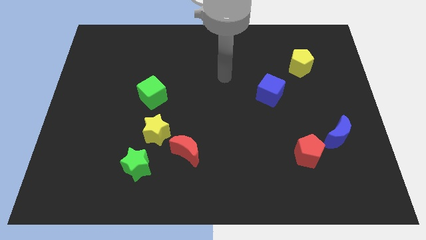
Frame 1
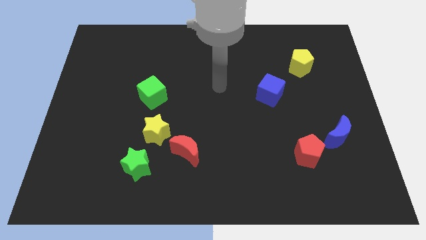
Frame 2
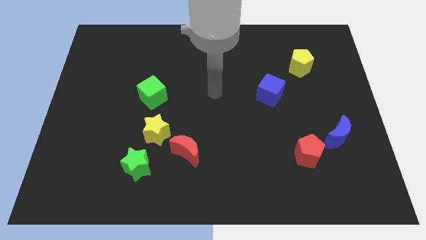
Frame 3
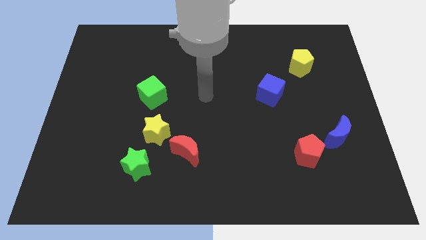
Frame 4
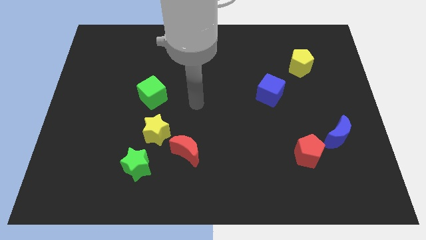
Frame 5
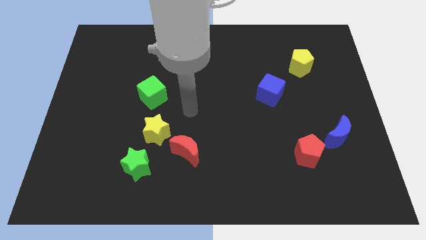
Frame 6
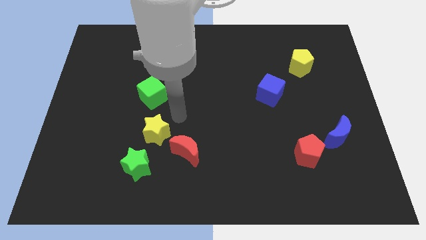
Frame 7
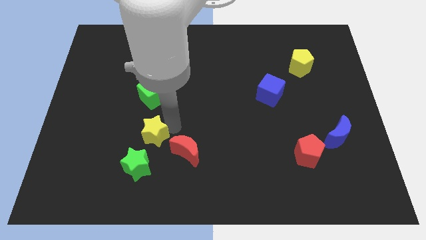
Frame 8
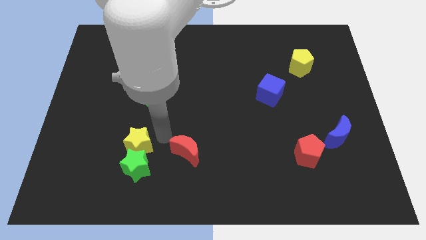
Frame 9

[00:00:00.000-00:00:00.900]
pull the red moon apart from the yellow star

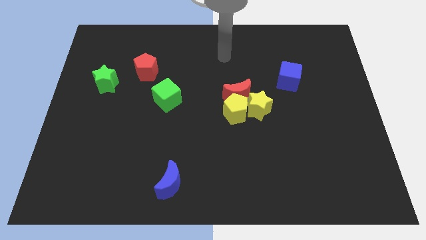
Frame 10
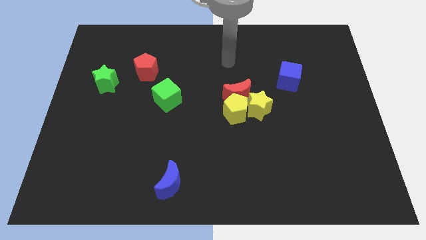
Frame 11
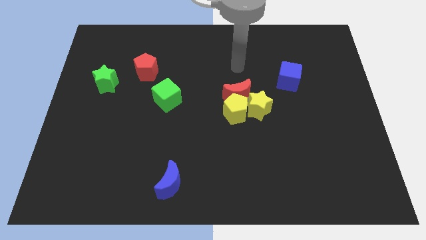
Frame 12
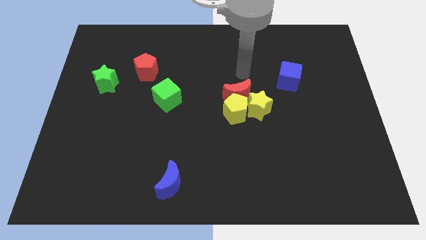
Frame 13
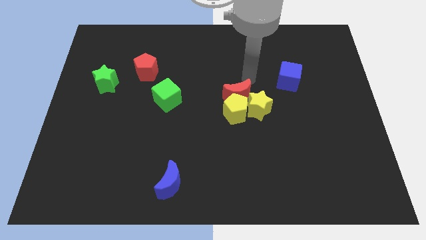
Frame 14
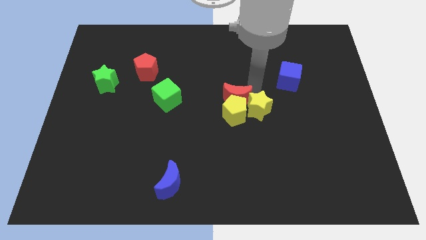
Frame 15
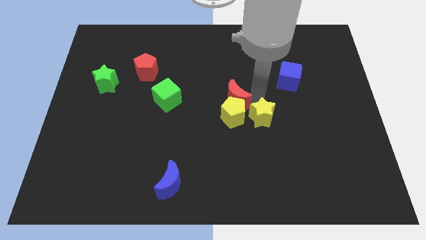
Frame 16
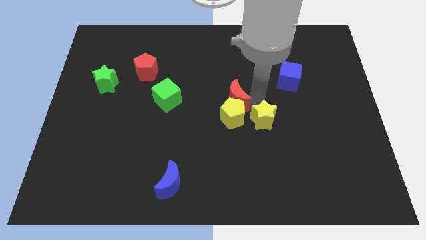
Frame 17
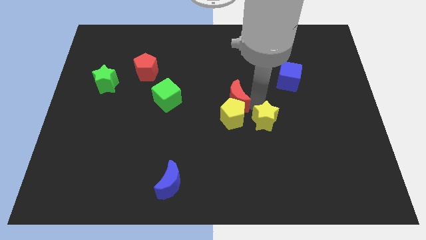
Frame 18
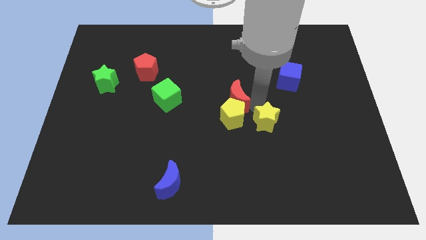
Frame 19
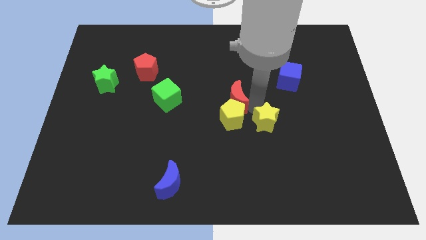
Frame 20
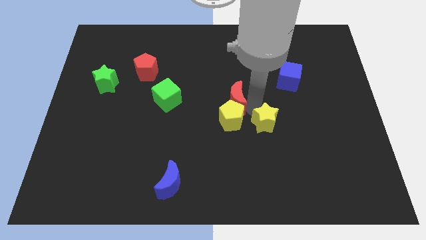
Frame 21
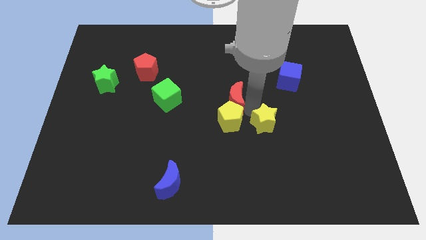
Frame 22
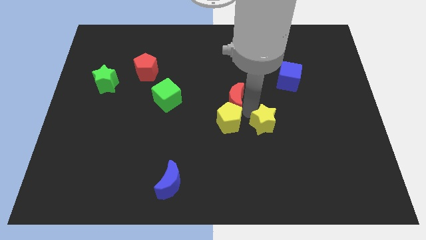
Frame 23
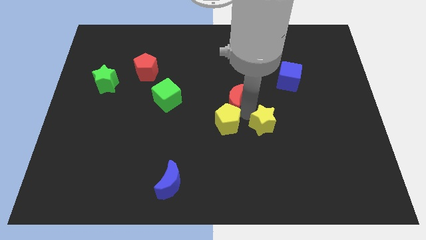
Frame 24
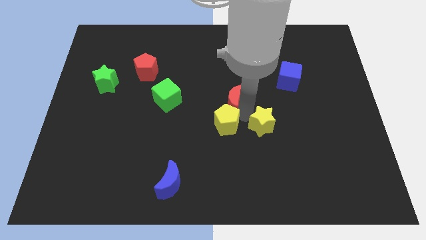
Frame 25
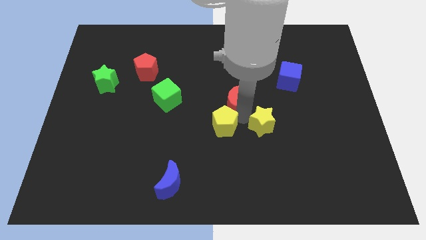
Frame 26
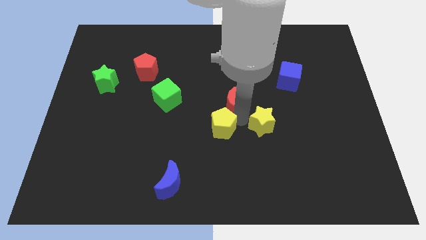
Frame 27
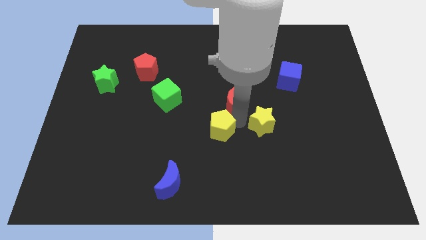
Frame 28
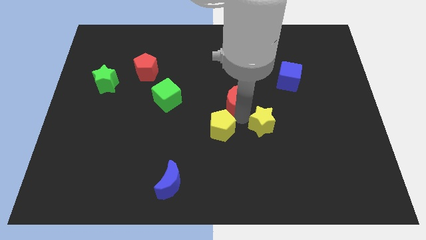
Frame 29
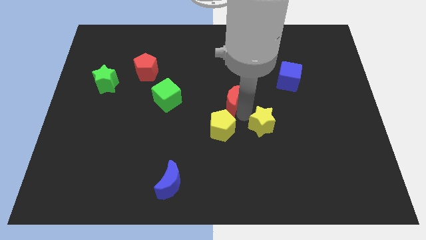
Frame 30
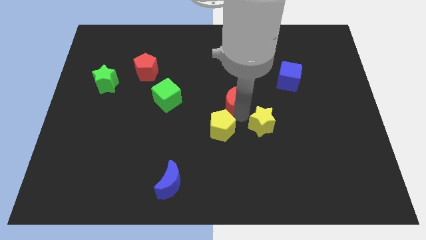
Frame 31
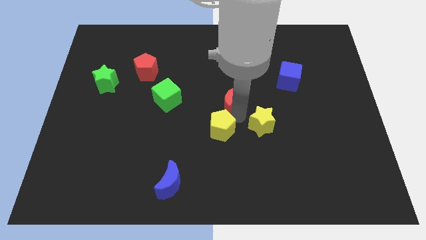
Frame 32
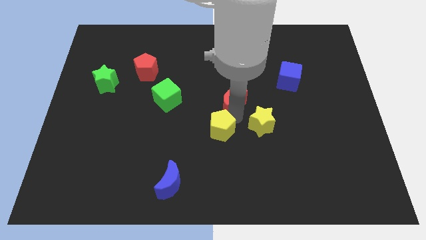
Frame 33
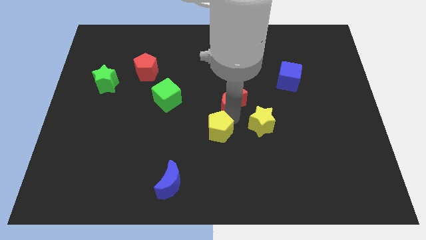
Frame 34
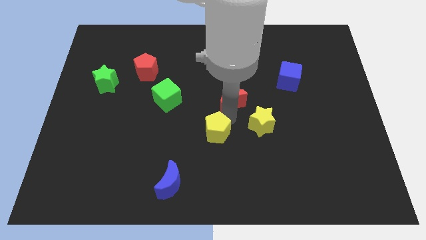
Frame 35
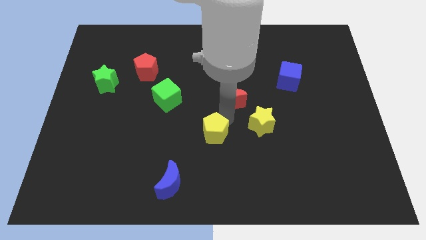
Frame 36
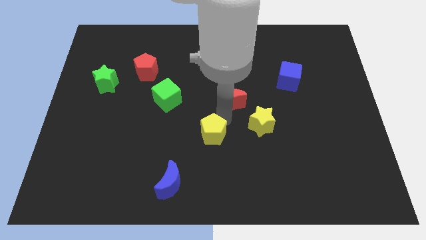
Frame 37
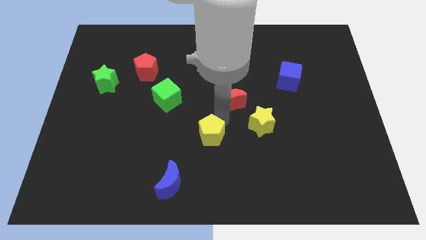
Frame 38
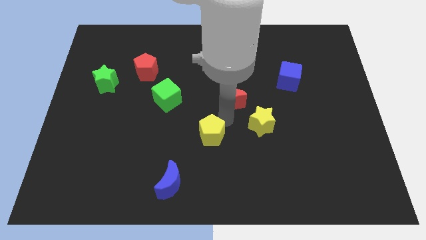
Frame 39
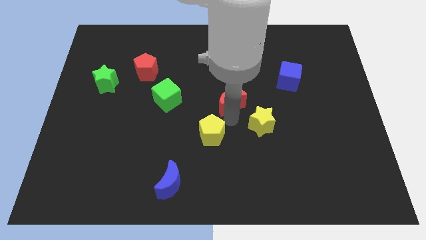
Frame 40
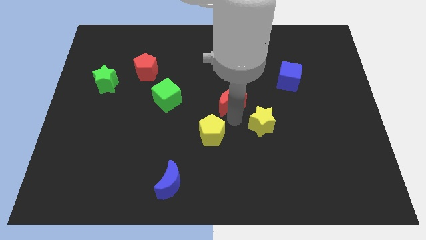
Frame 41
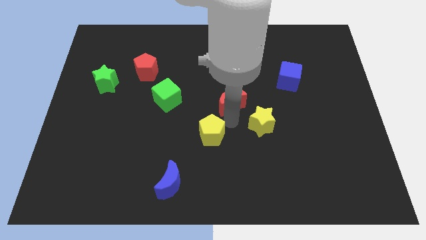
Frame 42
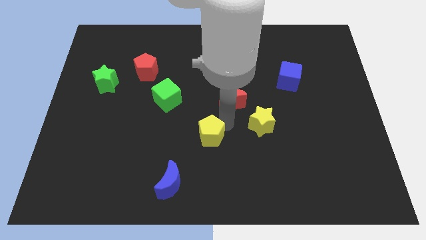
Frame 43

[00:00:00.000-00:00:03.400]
separate the yellow pentagon from the red moon and yellow star

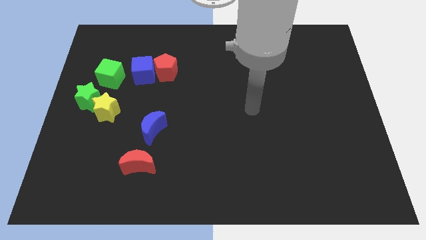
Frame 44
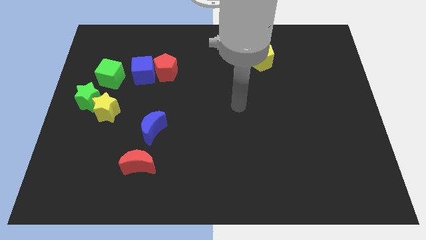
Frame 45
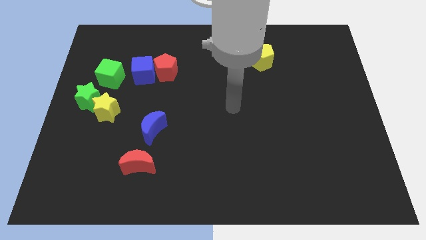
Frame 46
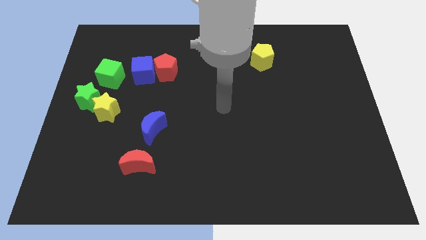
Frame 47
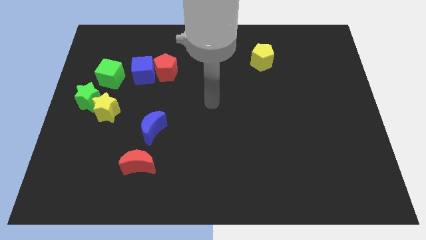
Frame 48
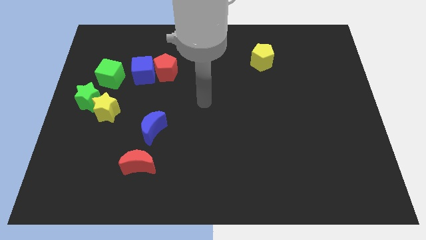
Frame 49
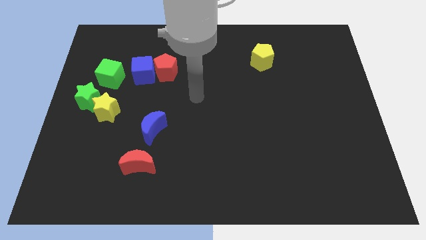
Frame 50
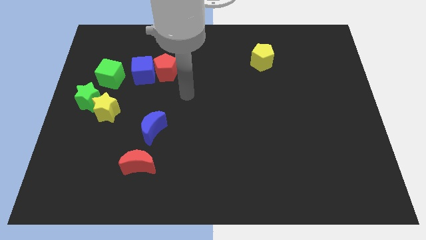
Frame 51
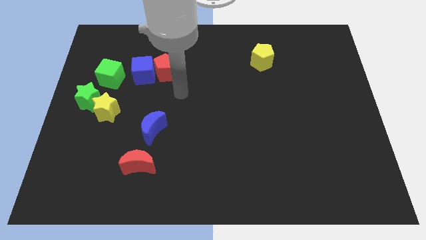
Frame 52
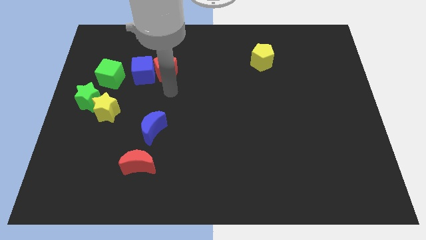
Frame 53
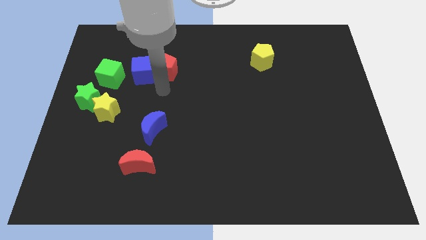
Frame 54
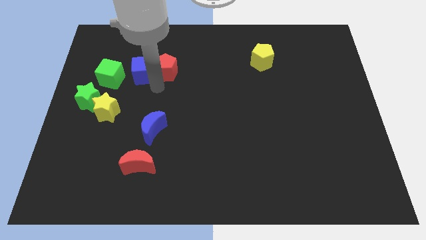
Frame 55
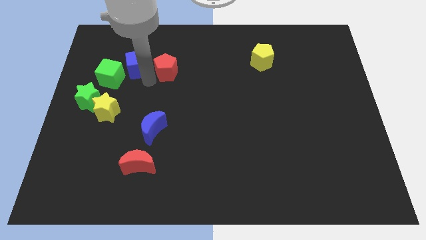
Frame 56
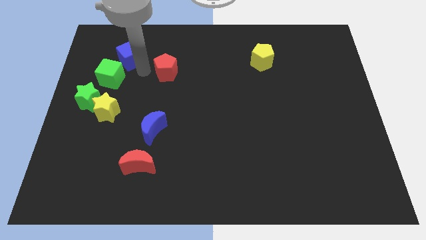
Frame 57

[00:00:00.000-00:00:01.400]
separate the red pentagon from the blue cube

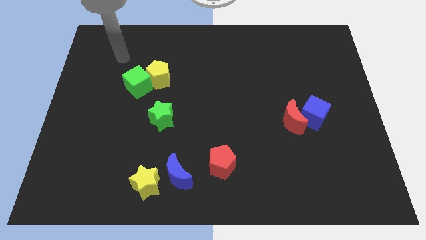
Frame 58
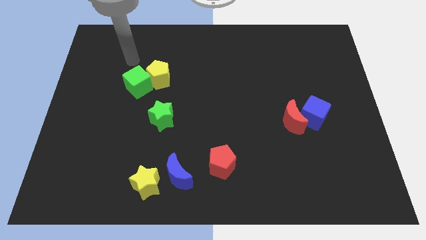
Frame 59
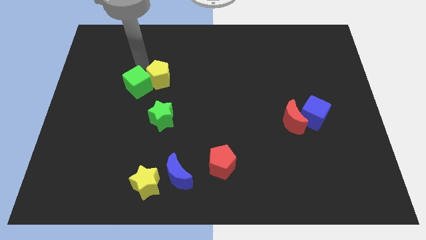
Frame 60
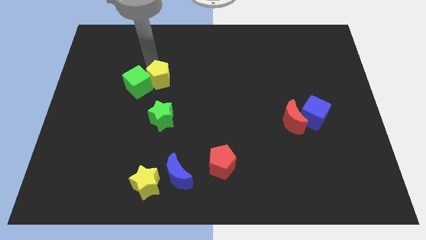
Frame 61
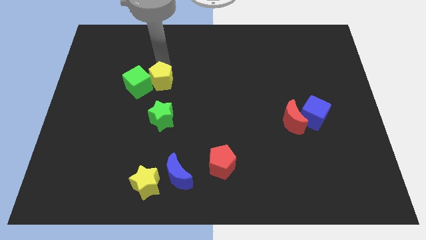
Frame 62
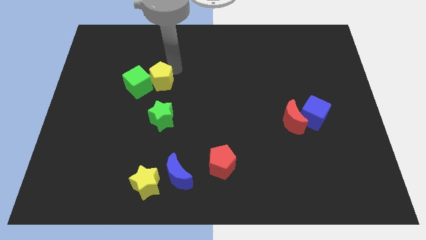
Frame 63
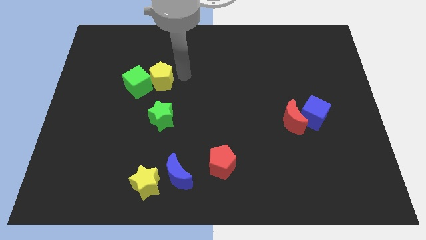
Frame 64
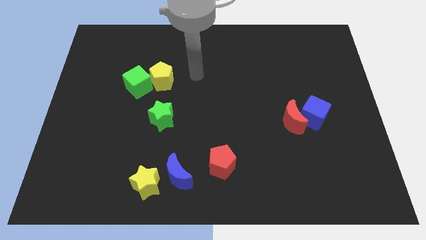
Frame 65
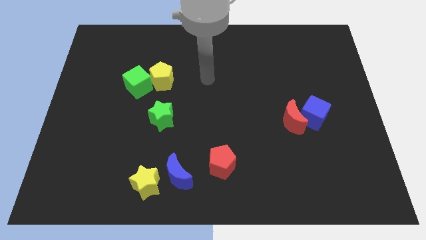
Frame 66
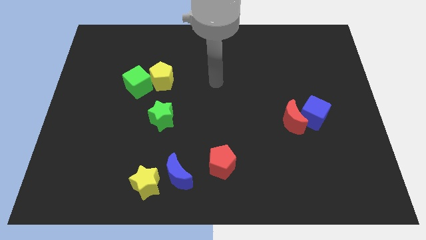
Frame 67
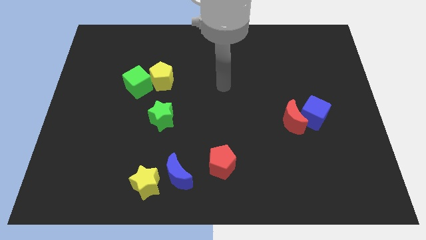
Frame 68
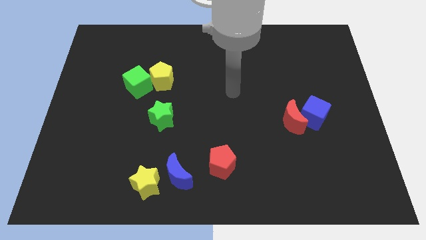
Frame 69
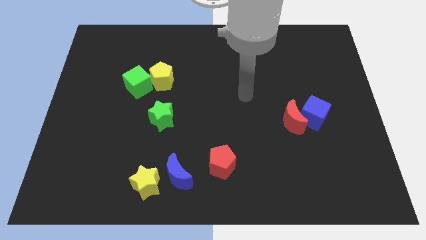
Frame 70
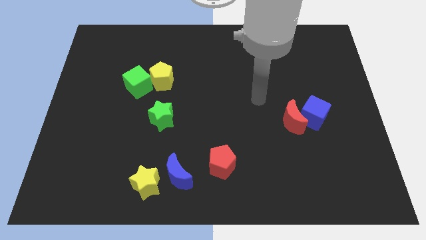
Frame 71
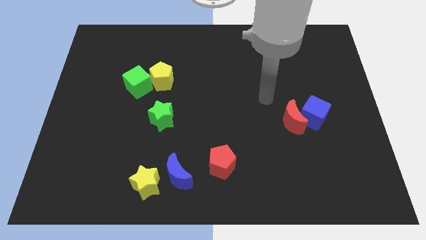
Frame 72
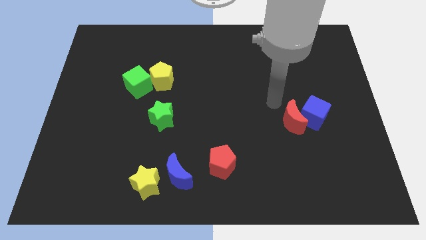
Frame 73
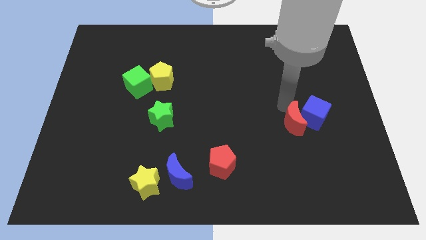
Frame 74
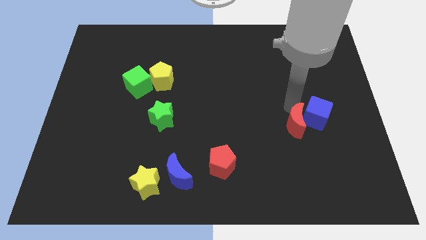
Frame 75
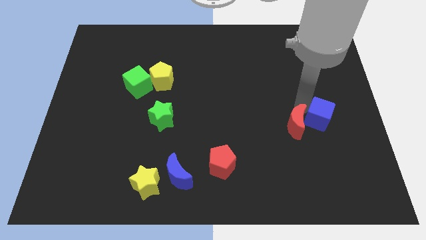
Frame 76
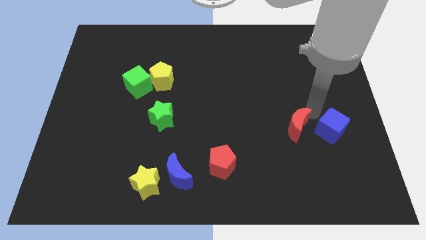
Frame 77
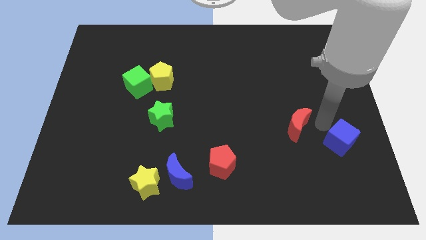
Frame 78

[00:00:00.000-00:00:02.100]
move the red moon away from the blue cube

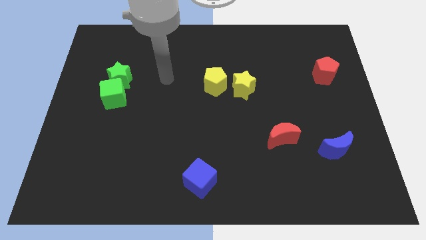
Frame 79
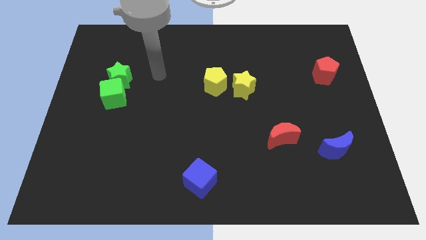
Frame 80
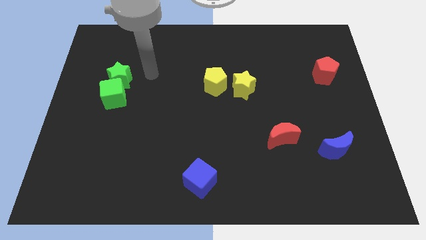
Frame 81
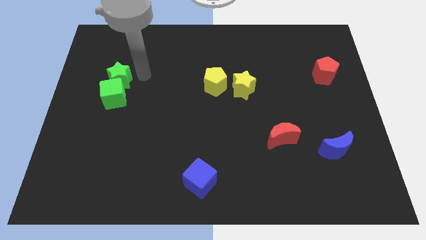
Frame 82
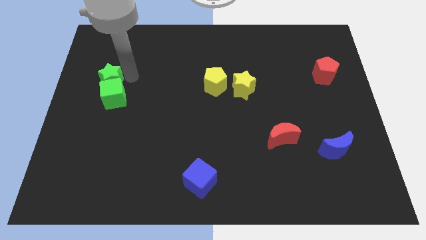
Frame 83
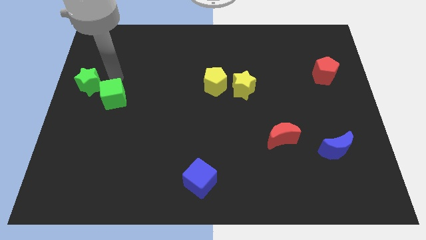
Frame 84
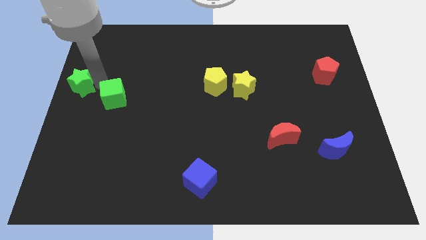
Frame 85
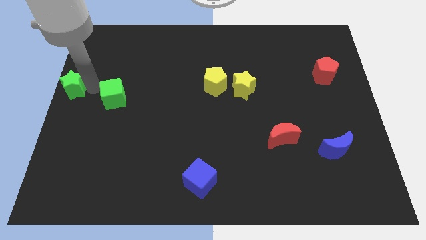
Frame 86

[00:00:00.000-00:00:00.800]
separate the green cube from the green star

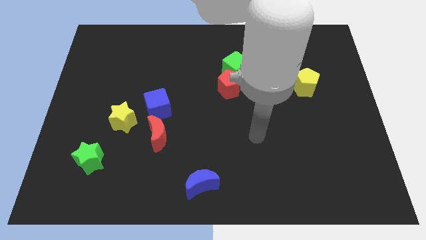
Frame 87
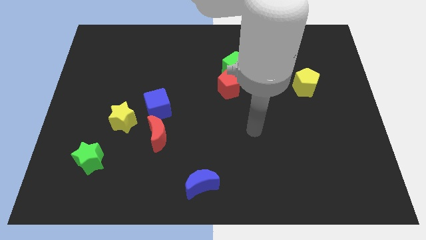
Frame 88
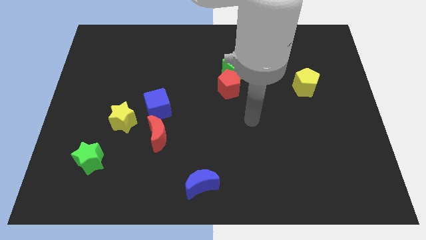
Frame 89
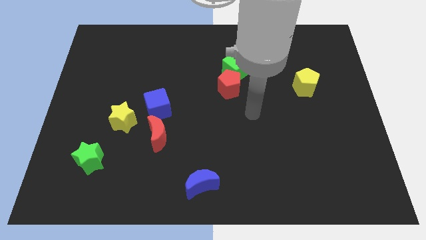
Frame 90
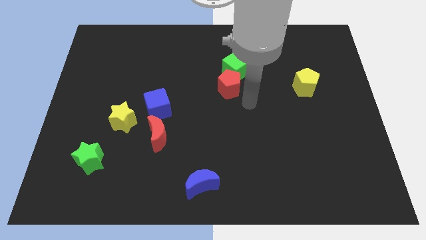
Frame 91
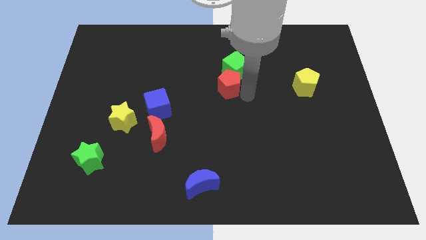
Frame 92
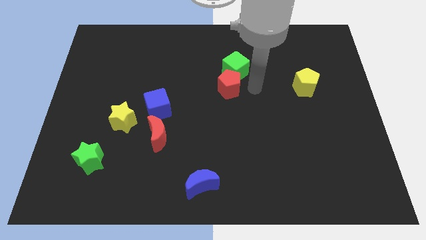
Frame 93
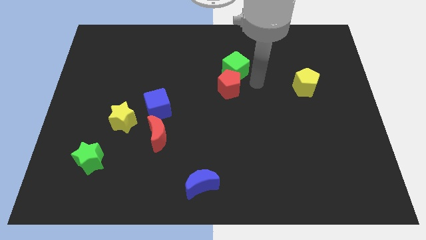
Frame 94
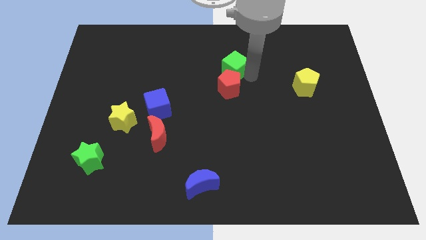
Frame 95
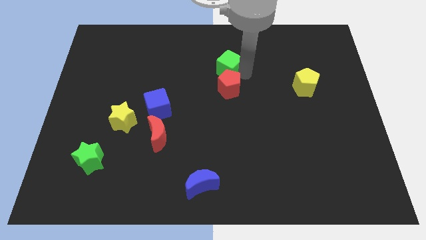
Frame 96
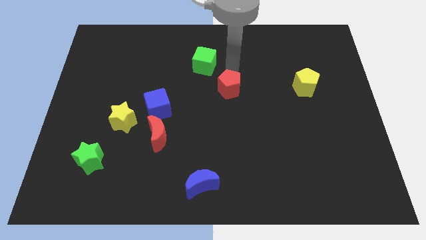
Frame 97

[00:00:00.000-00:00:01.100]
separate the red pentagon from the green cube
